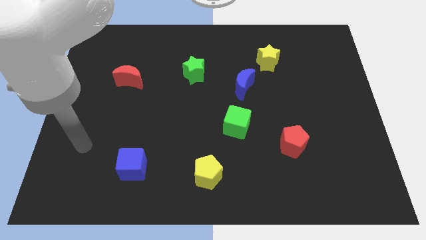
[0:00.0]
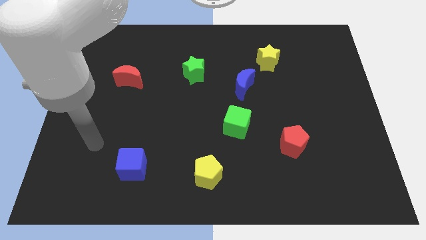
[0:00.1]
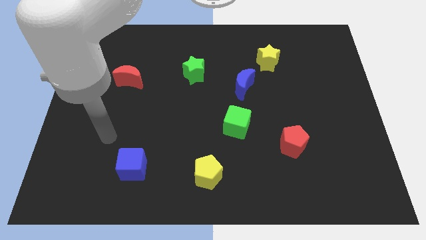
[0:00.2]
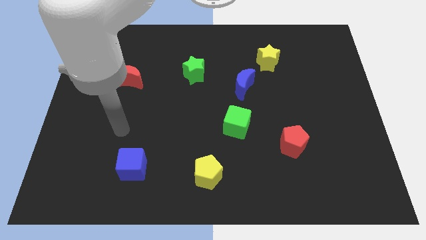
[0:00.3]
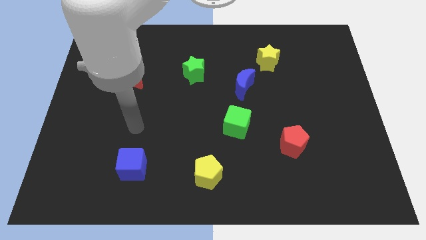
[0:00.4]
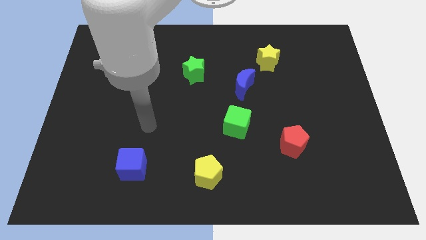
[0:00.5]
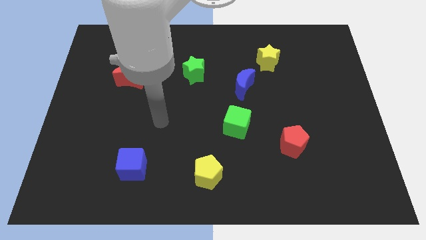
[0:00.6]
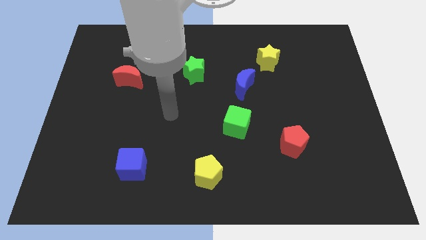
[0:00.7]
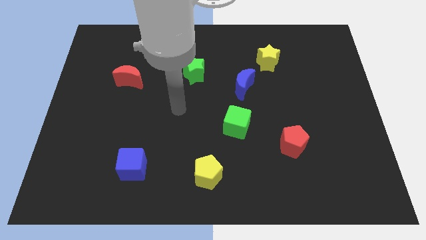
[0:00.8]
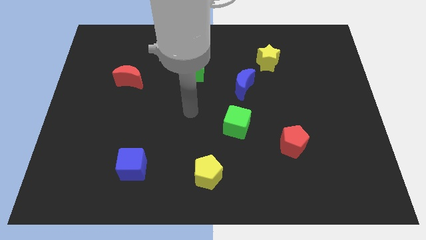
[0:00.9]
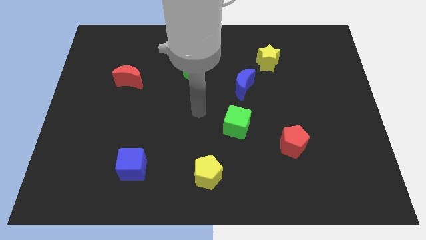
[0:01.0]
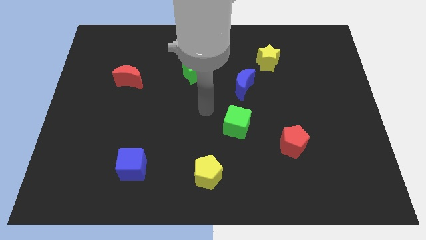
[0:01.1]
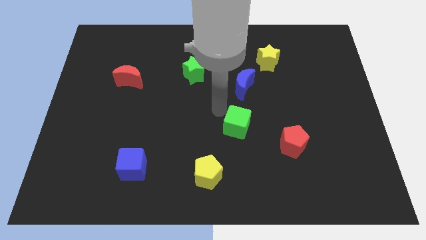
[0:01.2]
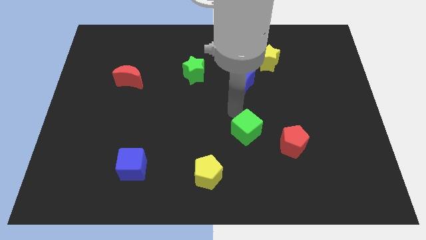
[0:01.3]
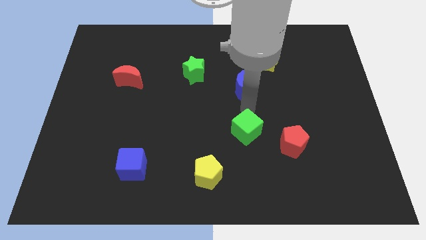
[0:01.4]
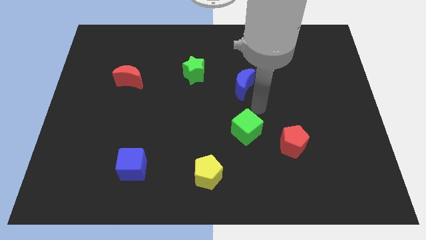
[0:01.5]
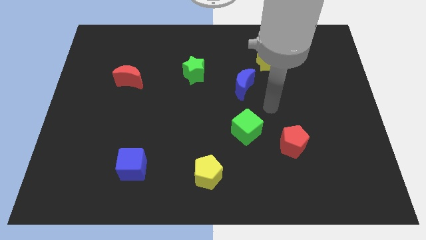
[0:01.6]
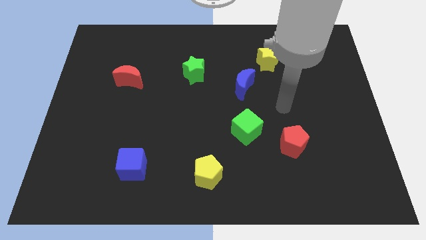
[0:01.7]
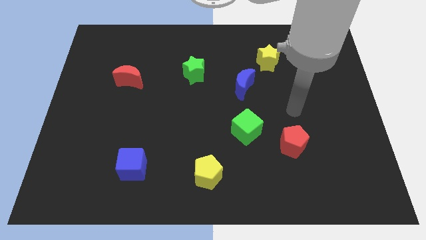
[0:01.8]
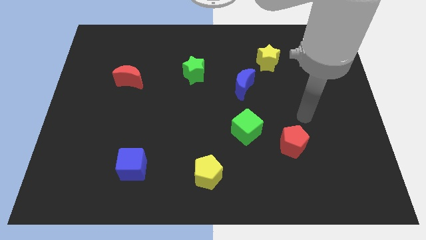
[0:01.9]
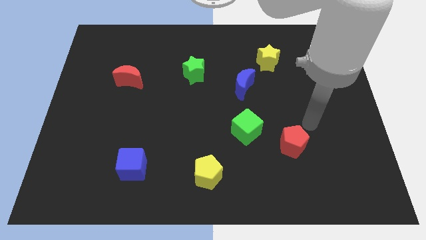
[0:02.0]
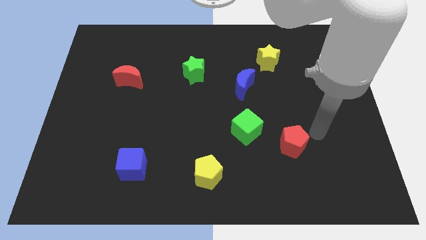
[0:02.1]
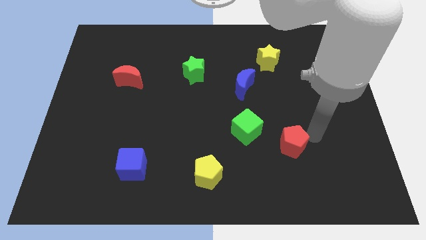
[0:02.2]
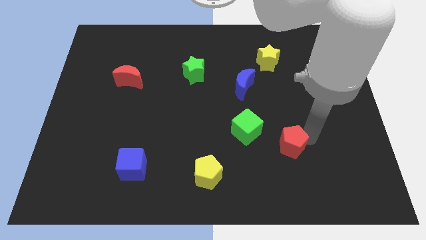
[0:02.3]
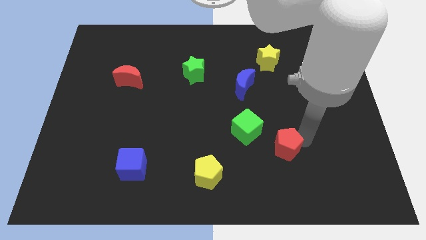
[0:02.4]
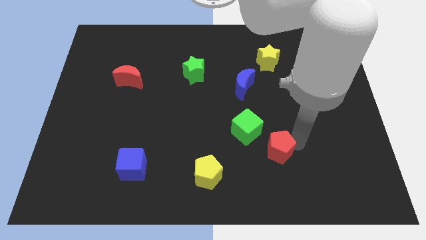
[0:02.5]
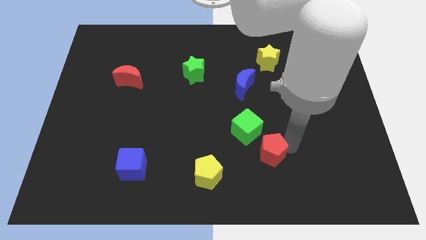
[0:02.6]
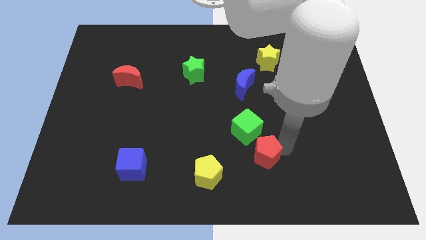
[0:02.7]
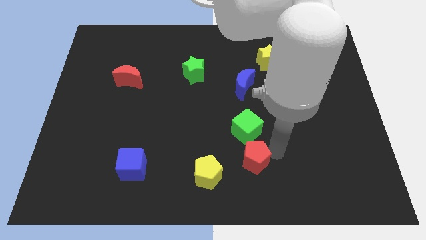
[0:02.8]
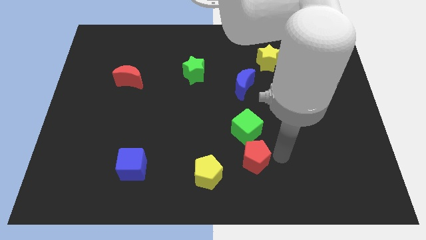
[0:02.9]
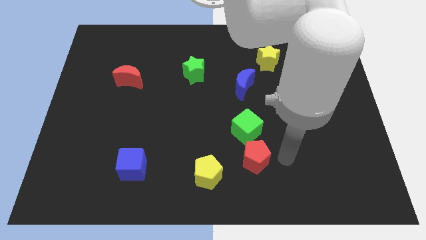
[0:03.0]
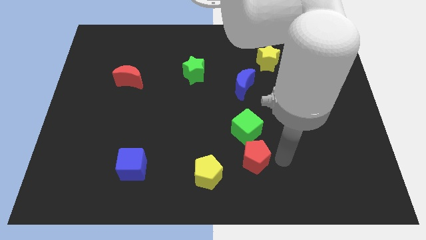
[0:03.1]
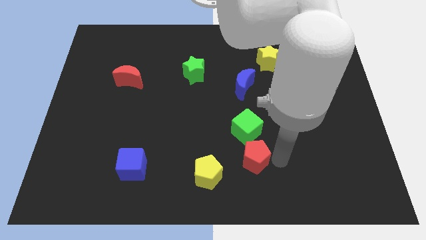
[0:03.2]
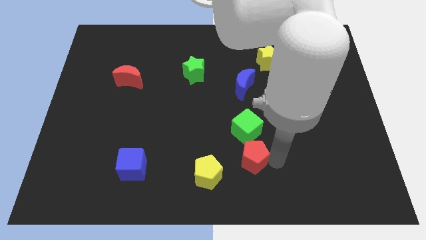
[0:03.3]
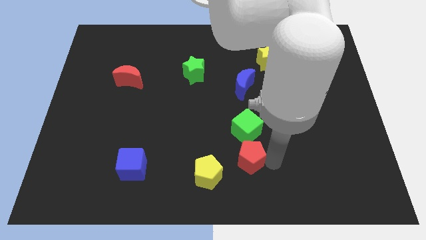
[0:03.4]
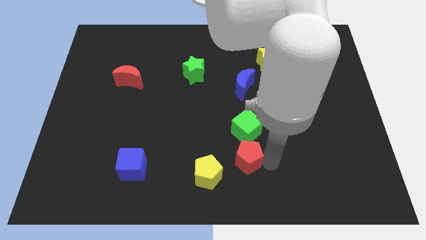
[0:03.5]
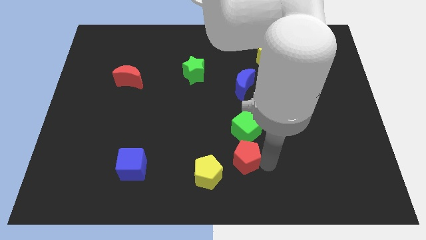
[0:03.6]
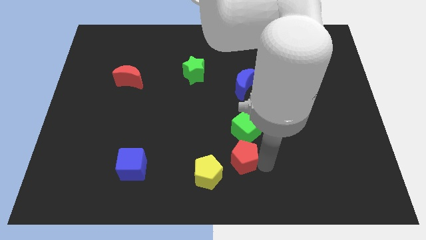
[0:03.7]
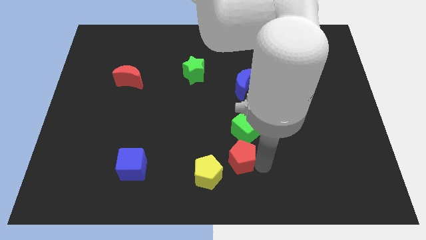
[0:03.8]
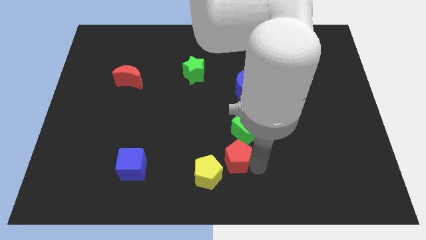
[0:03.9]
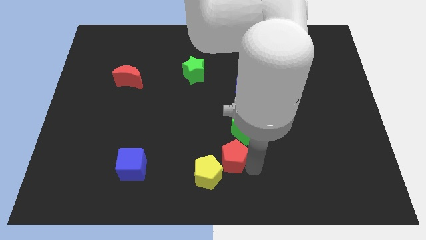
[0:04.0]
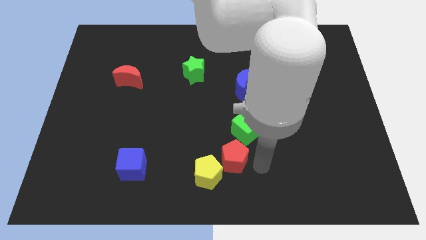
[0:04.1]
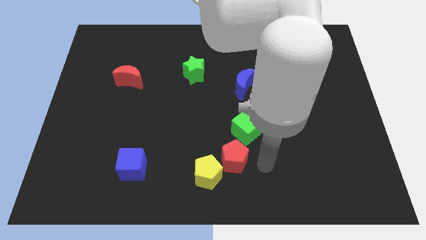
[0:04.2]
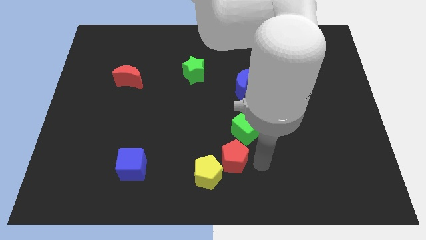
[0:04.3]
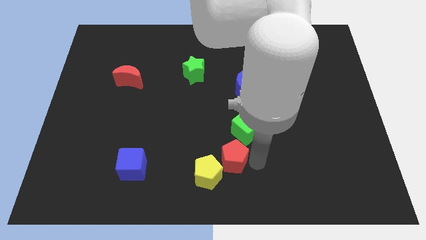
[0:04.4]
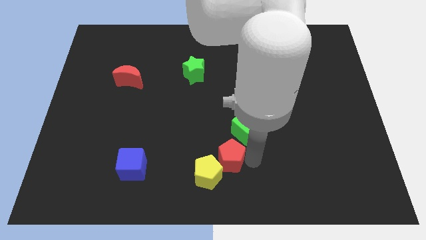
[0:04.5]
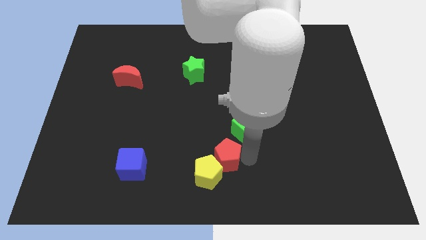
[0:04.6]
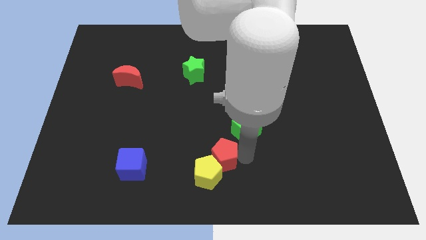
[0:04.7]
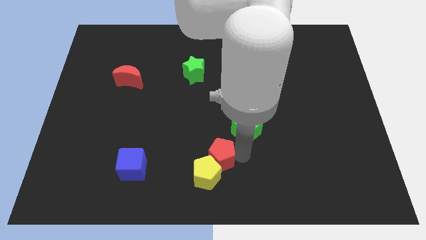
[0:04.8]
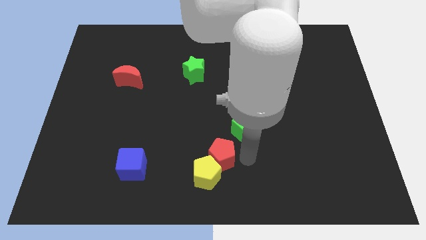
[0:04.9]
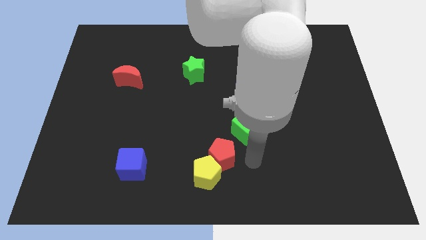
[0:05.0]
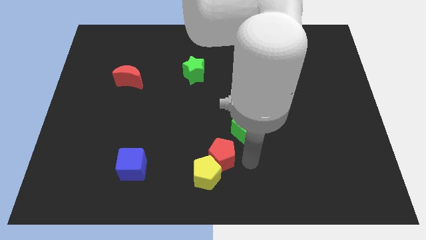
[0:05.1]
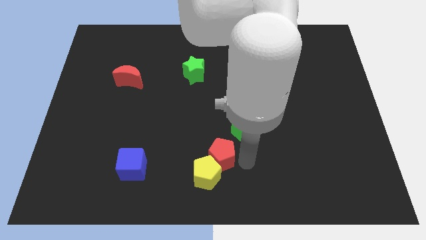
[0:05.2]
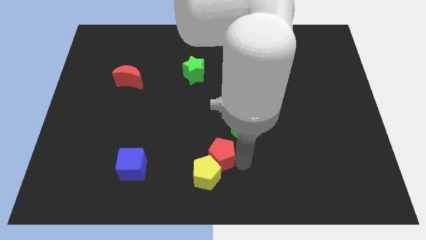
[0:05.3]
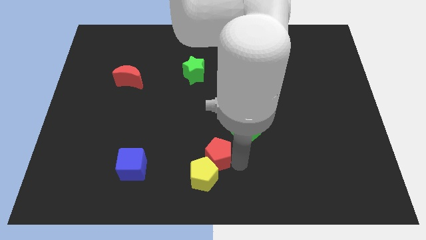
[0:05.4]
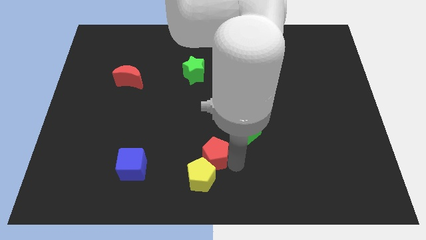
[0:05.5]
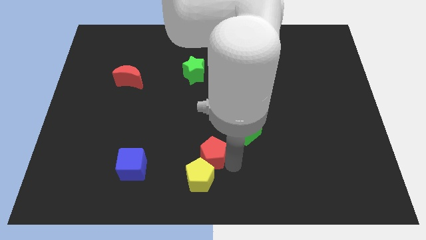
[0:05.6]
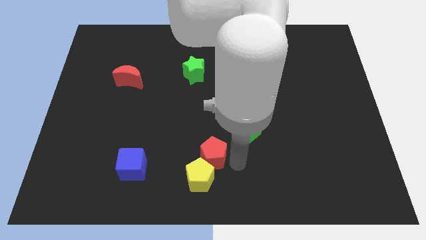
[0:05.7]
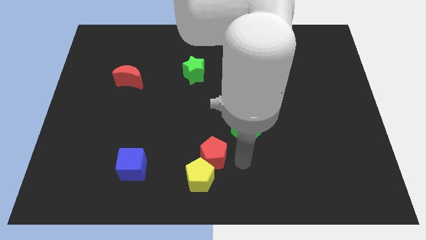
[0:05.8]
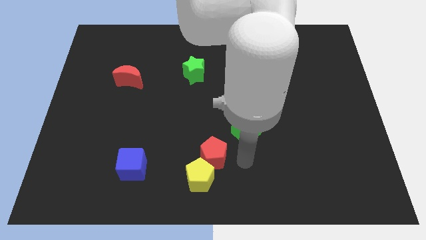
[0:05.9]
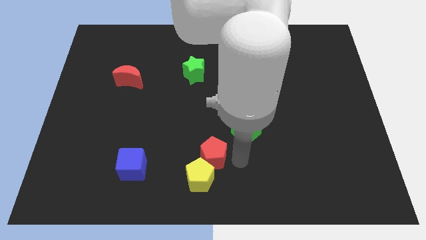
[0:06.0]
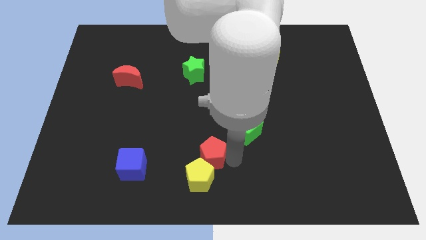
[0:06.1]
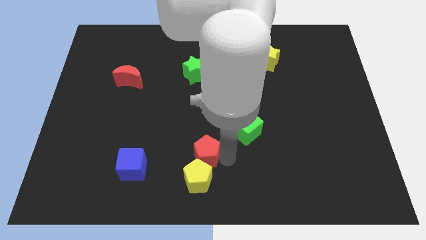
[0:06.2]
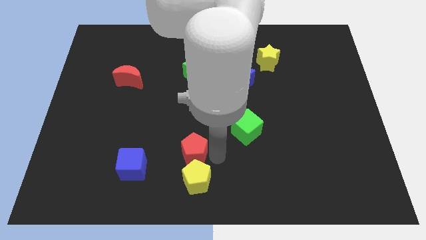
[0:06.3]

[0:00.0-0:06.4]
move the red pentagon to the left

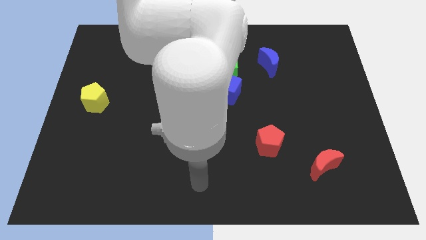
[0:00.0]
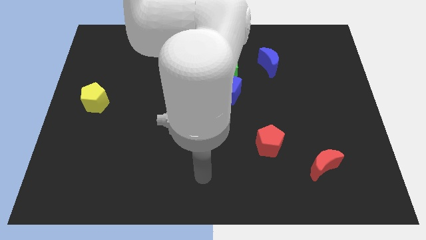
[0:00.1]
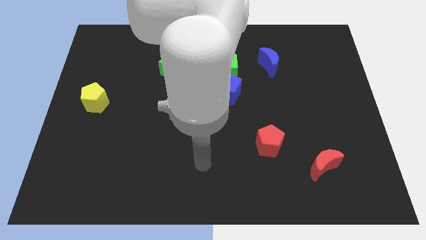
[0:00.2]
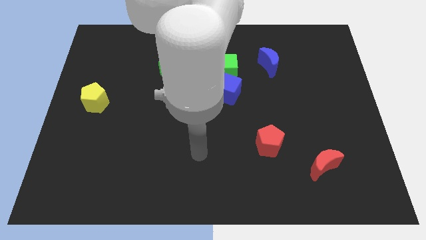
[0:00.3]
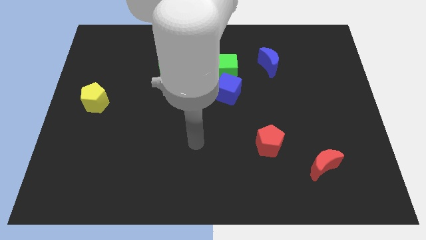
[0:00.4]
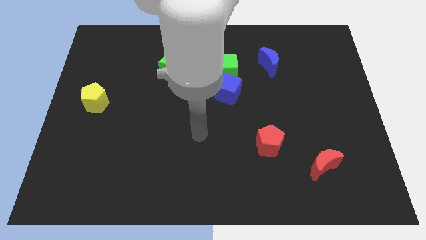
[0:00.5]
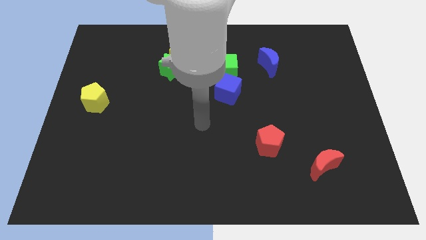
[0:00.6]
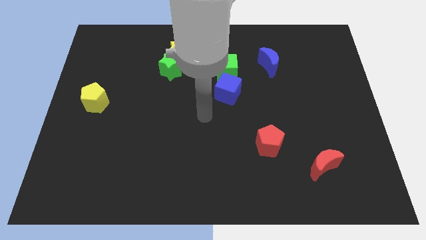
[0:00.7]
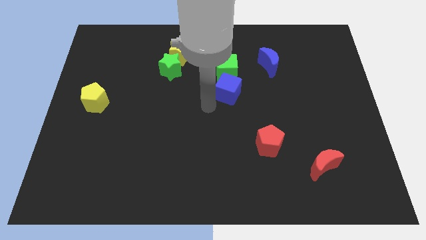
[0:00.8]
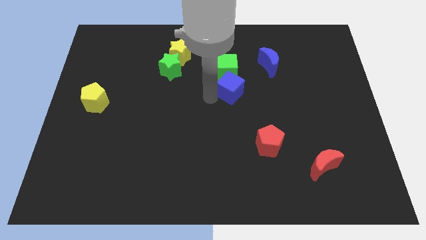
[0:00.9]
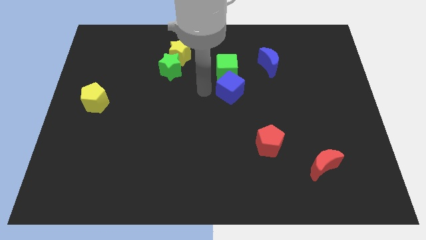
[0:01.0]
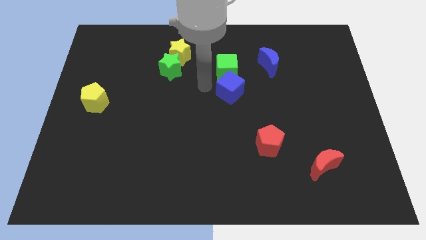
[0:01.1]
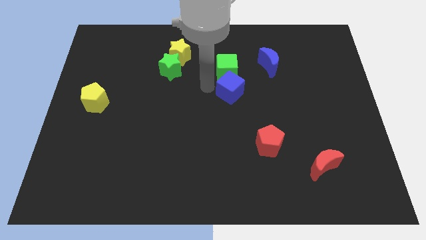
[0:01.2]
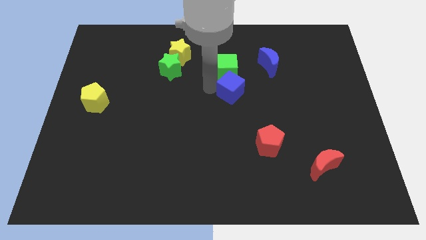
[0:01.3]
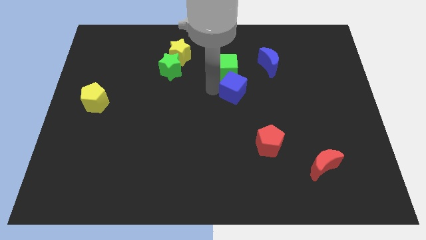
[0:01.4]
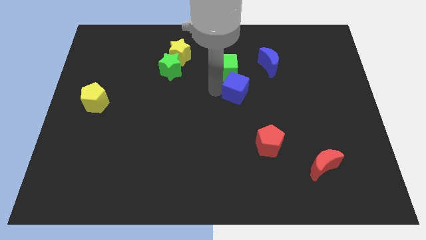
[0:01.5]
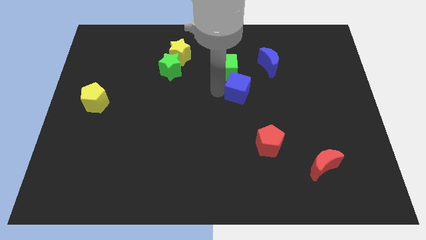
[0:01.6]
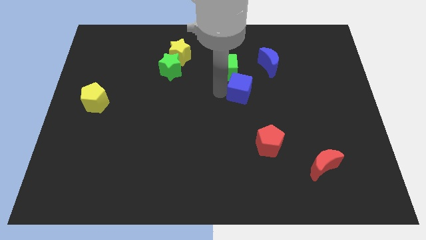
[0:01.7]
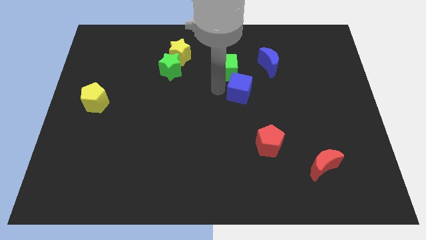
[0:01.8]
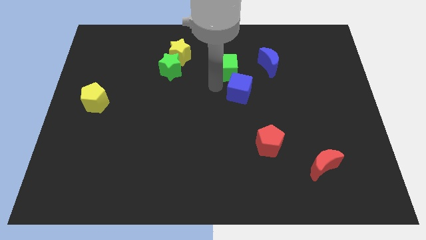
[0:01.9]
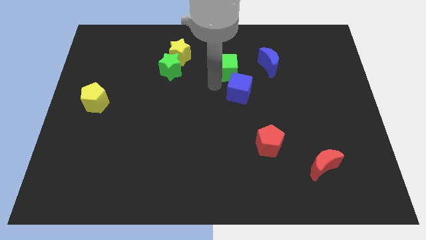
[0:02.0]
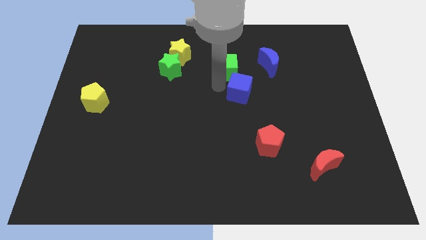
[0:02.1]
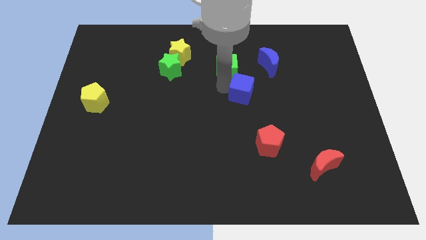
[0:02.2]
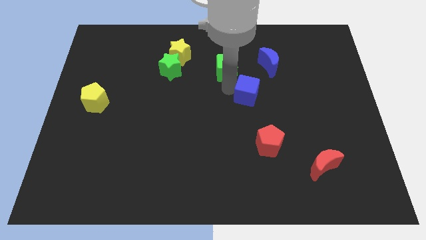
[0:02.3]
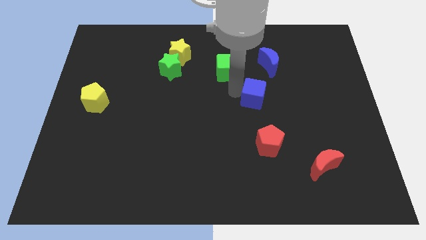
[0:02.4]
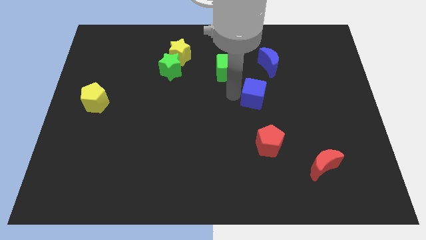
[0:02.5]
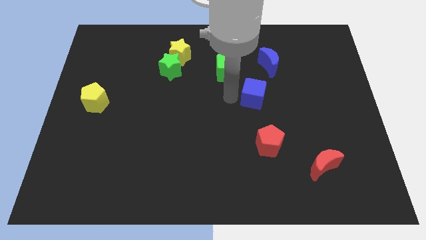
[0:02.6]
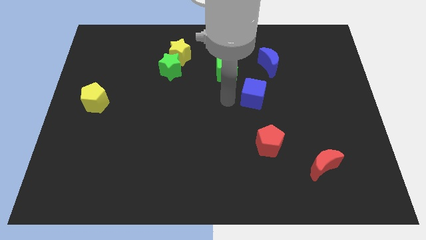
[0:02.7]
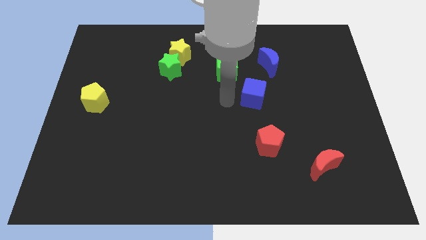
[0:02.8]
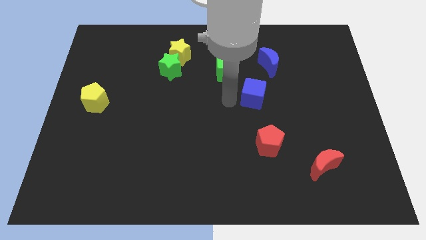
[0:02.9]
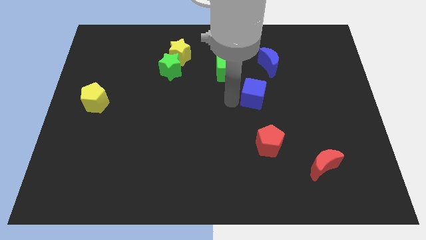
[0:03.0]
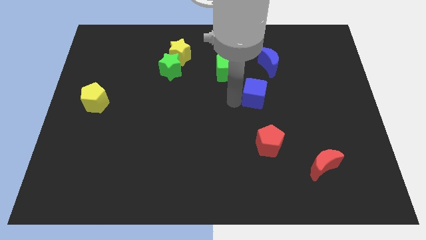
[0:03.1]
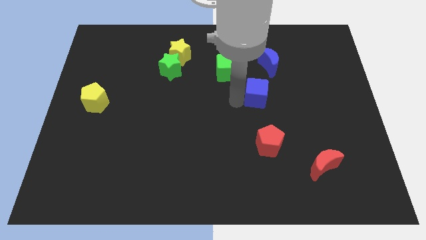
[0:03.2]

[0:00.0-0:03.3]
push the blue cube somewhat to the right
